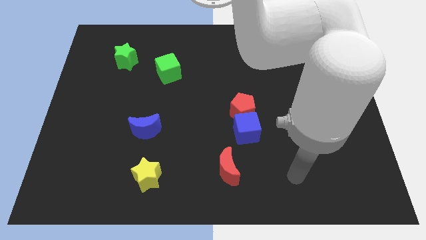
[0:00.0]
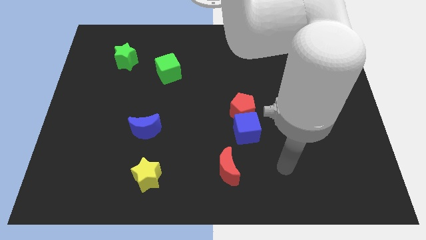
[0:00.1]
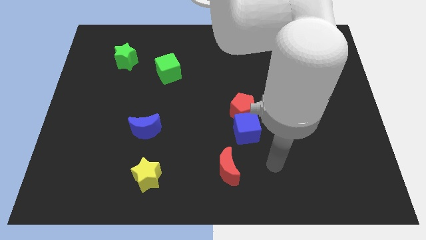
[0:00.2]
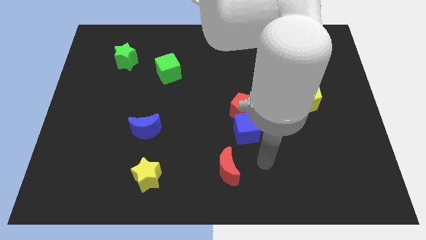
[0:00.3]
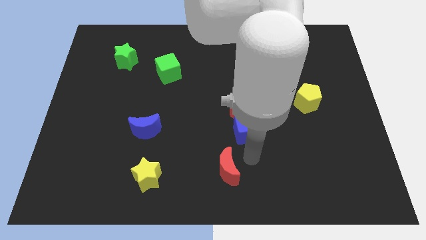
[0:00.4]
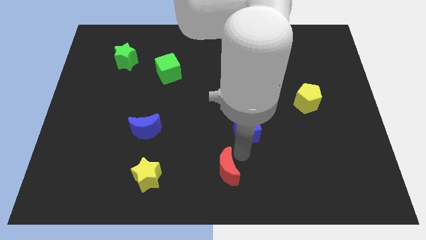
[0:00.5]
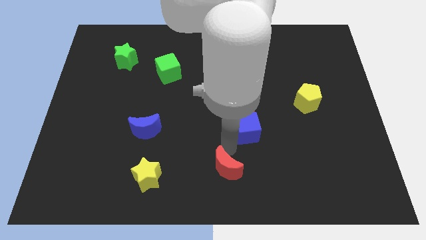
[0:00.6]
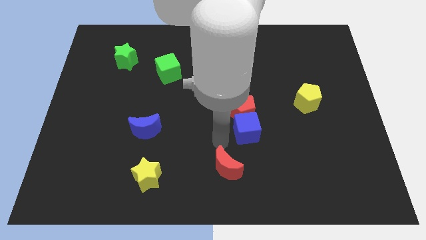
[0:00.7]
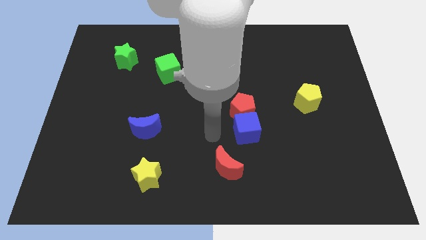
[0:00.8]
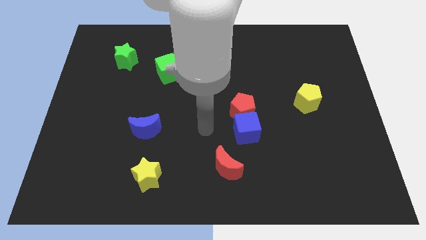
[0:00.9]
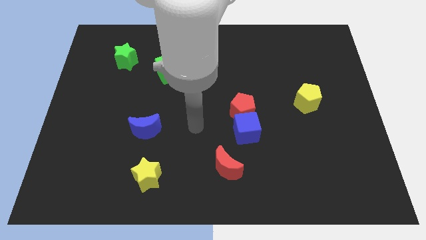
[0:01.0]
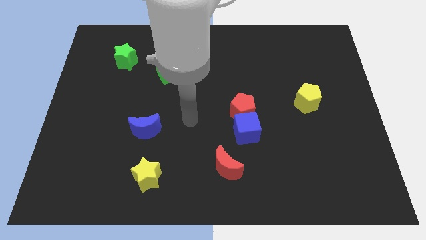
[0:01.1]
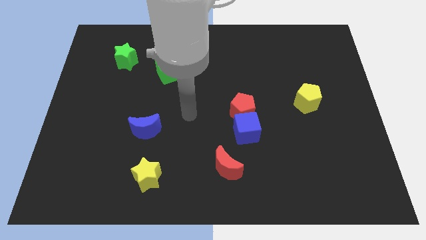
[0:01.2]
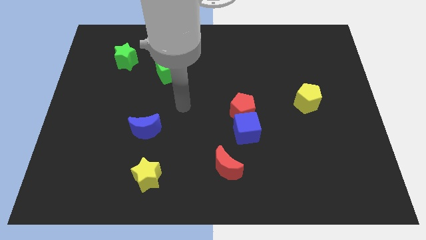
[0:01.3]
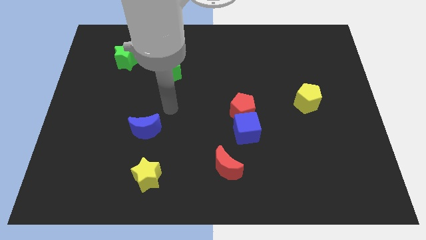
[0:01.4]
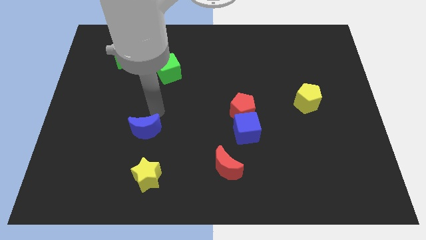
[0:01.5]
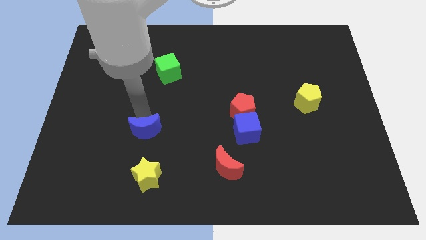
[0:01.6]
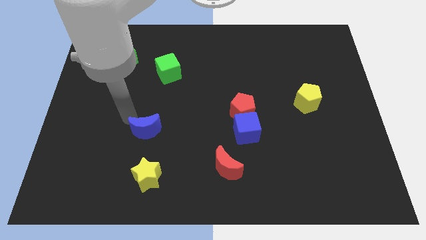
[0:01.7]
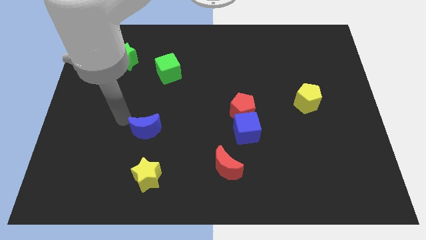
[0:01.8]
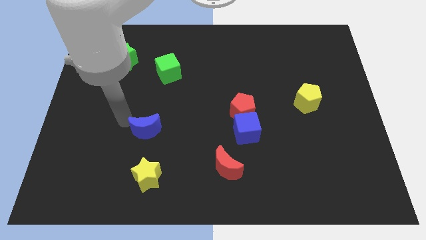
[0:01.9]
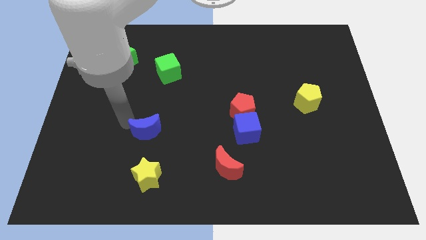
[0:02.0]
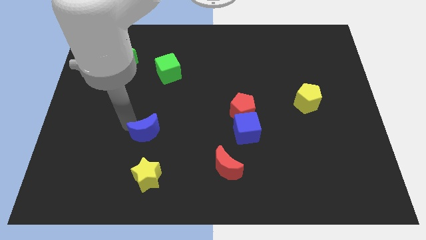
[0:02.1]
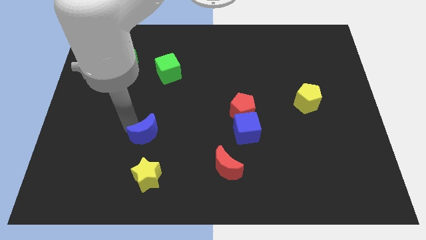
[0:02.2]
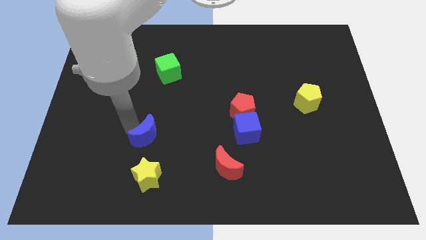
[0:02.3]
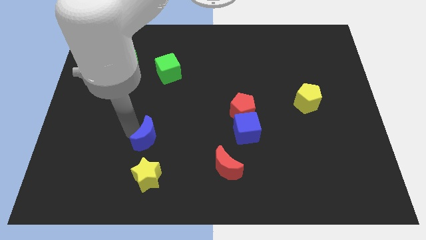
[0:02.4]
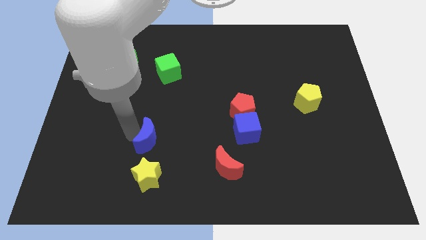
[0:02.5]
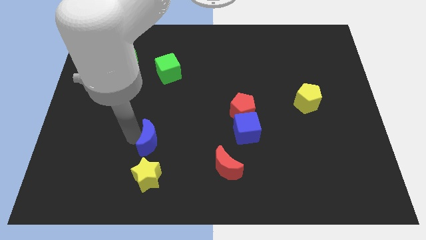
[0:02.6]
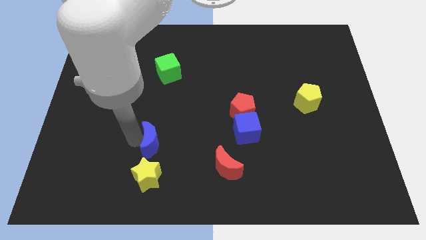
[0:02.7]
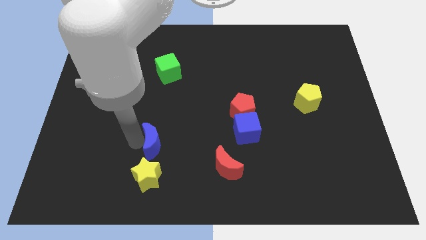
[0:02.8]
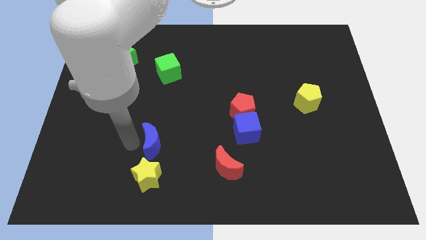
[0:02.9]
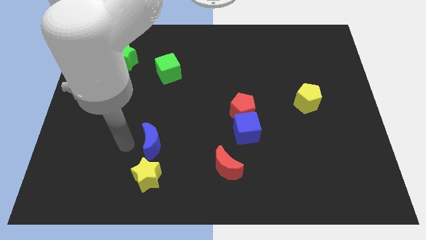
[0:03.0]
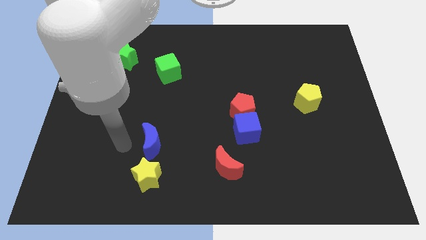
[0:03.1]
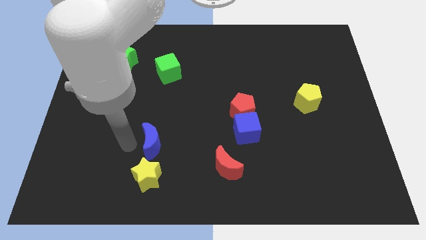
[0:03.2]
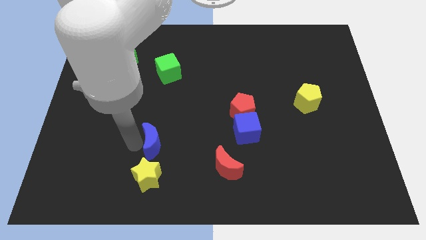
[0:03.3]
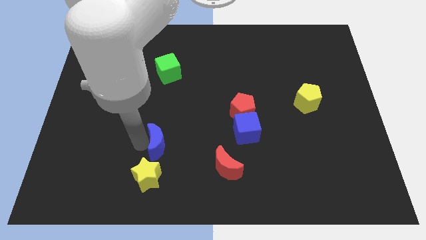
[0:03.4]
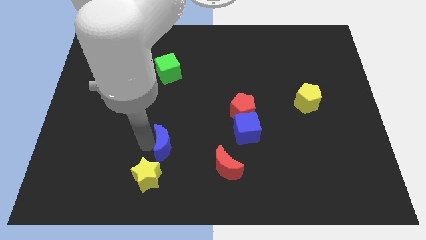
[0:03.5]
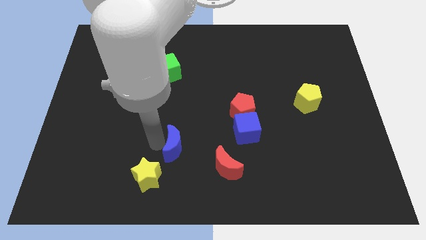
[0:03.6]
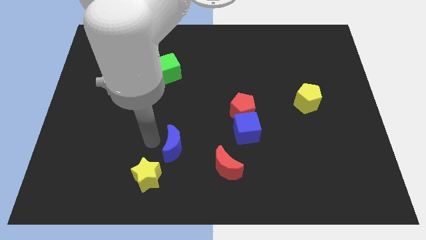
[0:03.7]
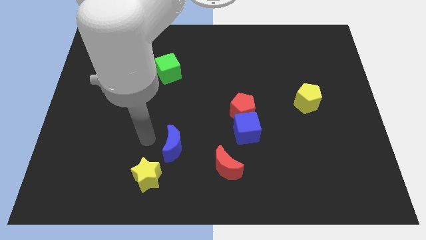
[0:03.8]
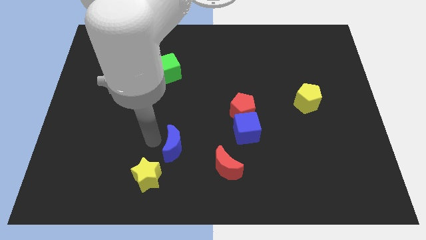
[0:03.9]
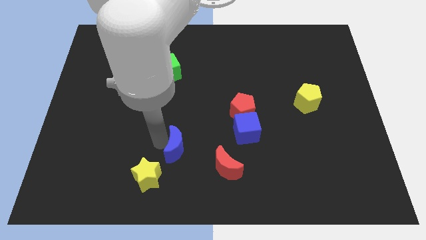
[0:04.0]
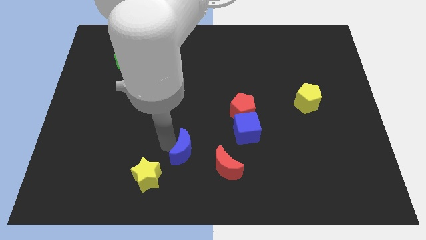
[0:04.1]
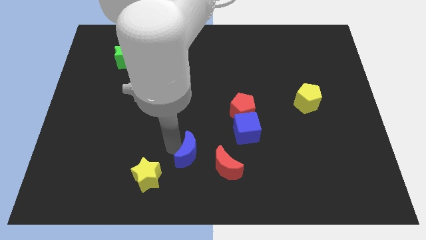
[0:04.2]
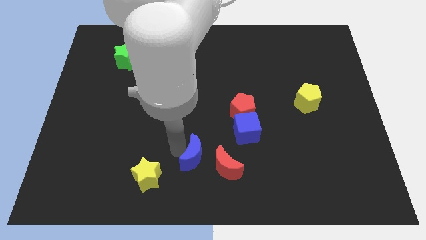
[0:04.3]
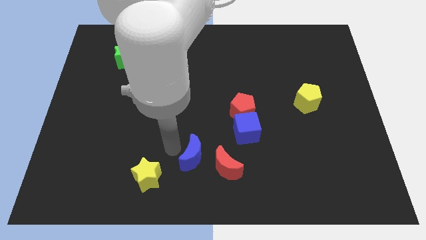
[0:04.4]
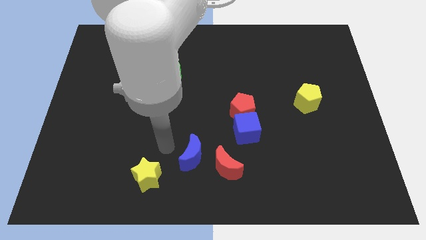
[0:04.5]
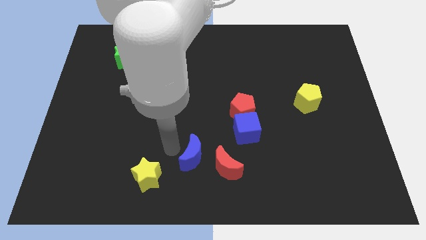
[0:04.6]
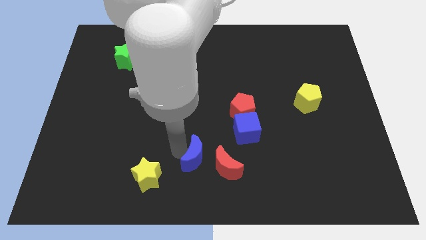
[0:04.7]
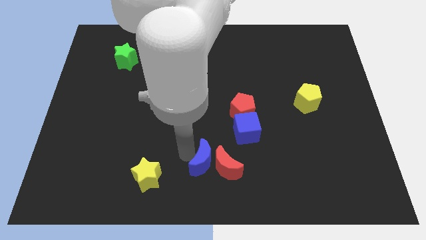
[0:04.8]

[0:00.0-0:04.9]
push the blue moon next to the red moon

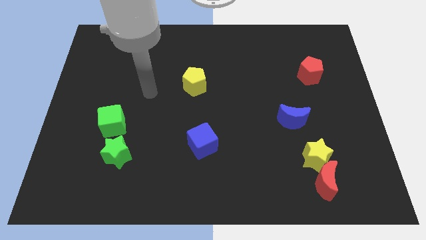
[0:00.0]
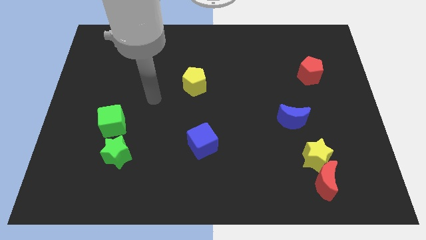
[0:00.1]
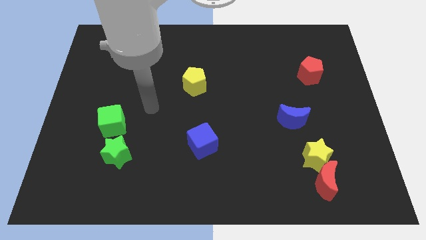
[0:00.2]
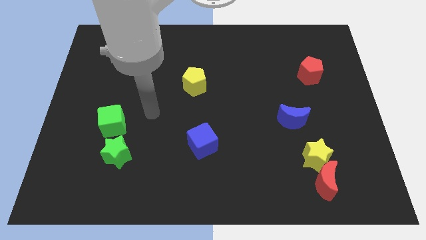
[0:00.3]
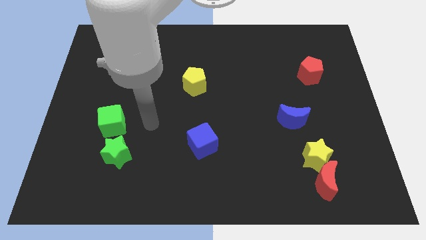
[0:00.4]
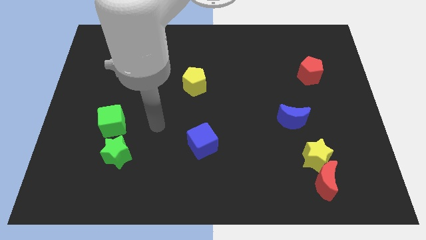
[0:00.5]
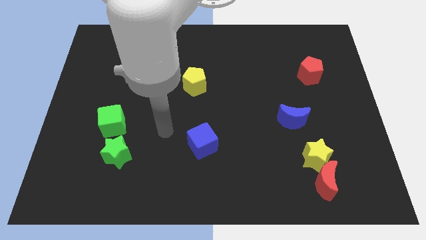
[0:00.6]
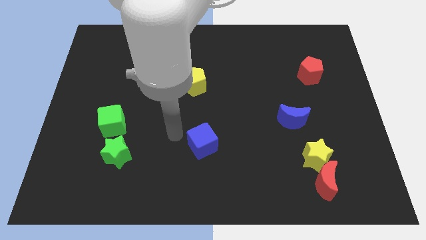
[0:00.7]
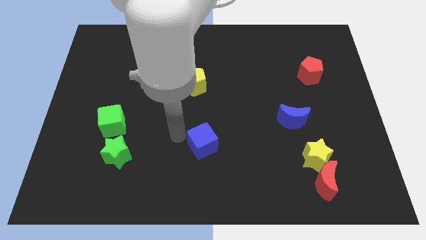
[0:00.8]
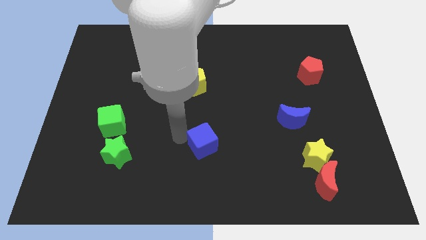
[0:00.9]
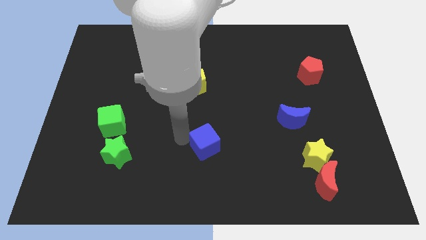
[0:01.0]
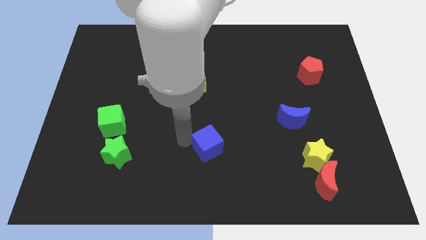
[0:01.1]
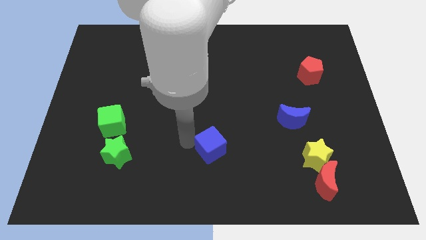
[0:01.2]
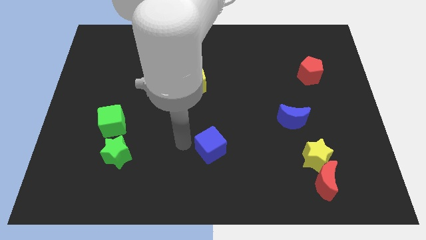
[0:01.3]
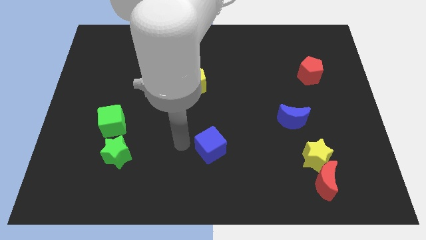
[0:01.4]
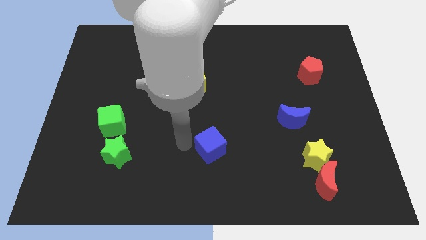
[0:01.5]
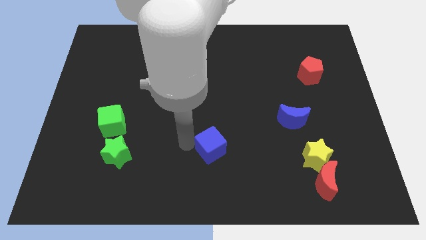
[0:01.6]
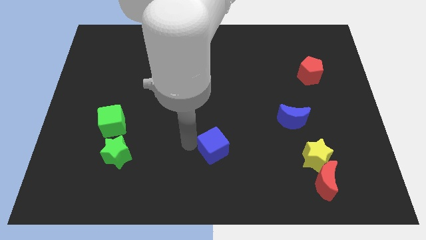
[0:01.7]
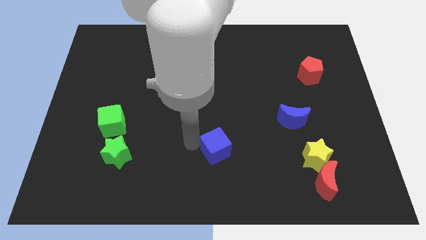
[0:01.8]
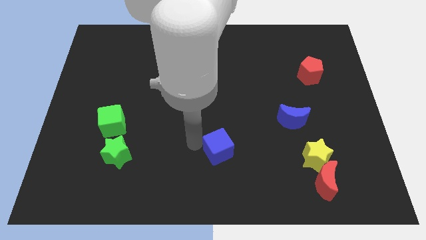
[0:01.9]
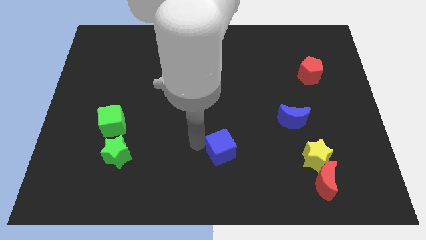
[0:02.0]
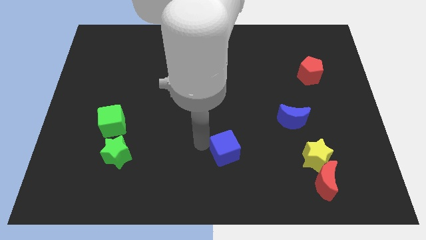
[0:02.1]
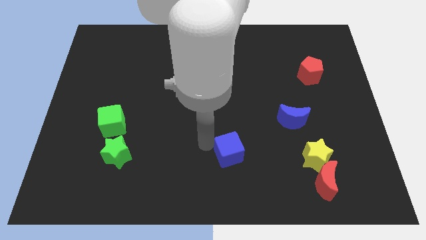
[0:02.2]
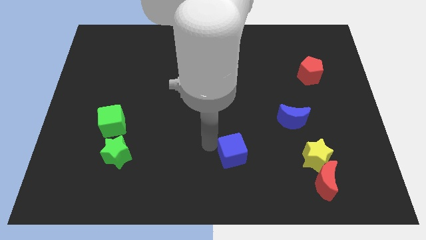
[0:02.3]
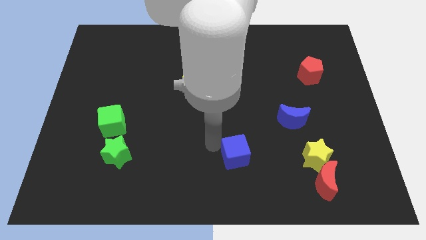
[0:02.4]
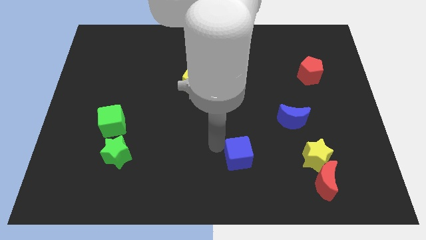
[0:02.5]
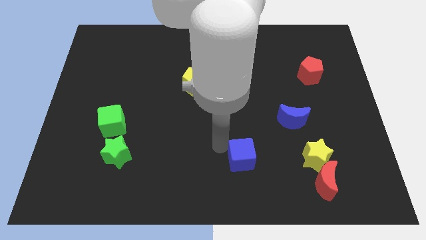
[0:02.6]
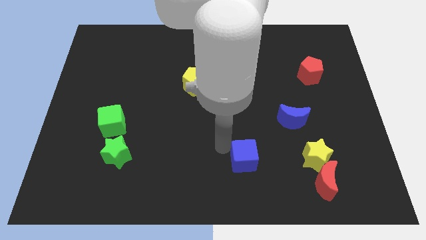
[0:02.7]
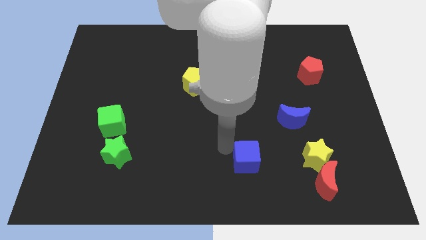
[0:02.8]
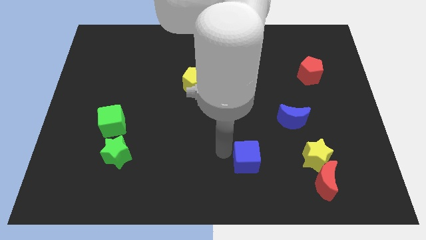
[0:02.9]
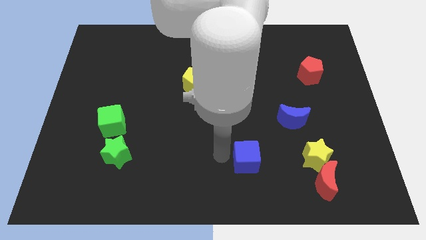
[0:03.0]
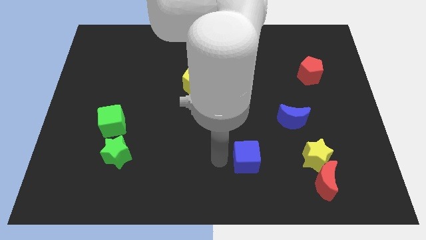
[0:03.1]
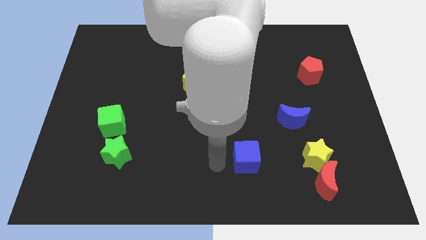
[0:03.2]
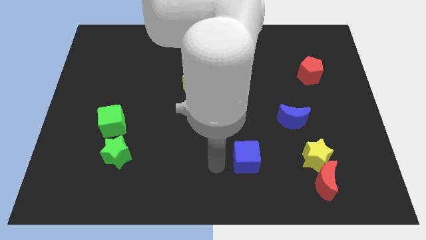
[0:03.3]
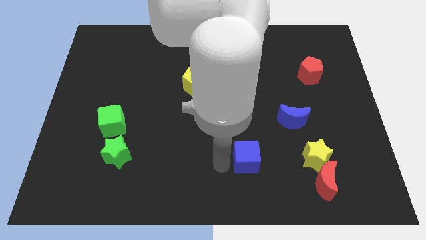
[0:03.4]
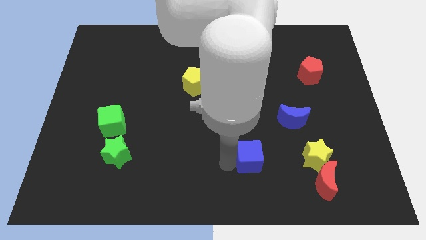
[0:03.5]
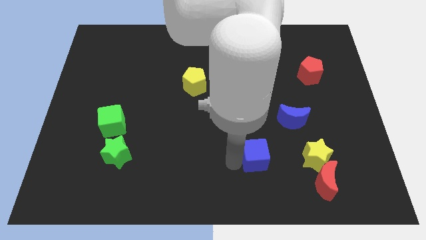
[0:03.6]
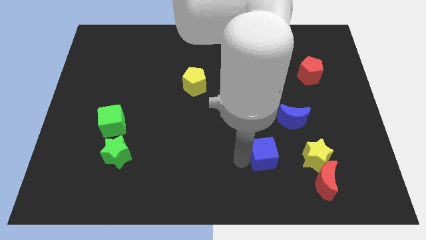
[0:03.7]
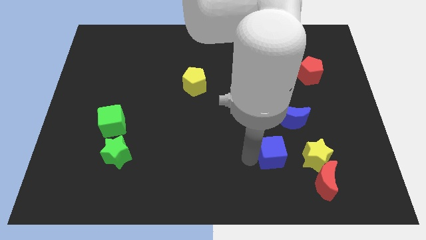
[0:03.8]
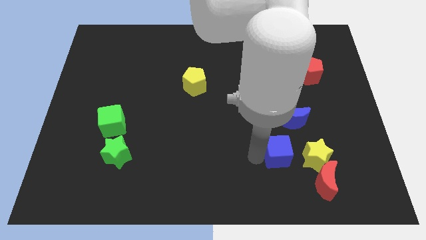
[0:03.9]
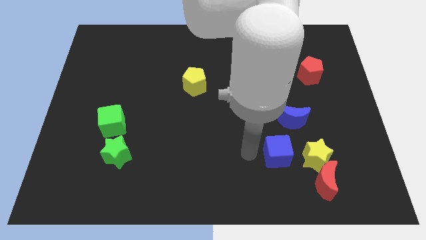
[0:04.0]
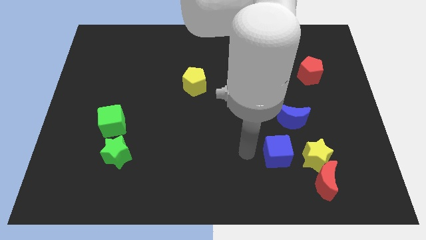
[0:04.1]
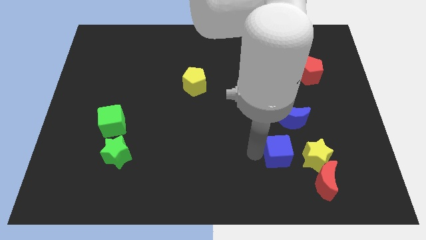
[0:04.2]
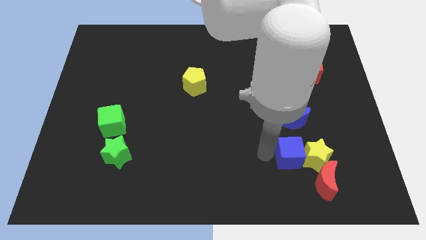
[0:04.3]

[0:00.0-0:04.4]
move the blue cube to the yellow star
